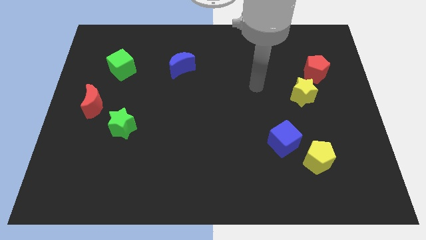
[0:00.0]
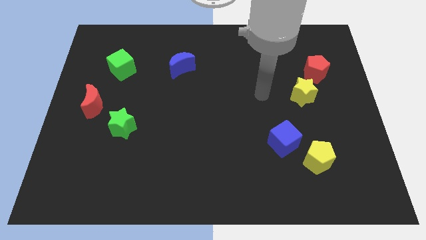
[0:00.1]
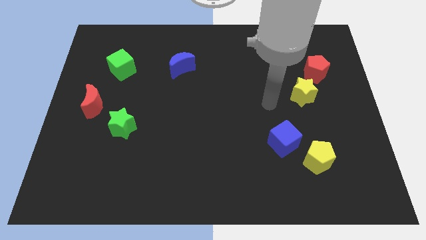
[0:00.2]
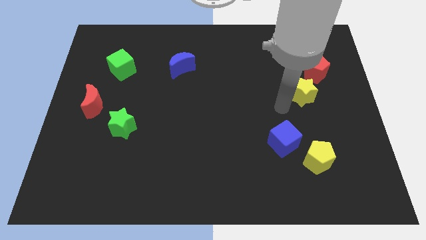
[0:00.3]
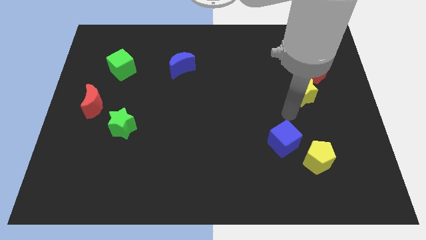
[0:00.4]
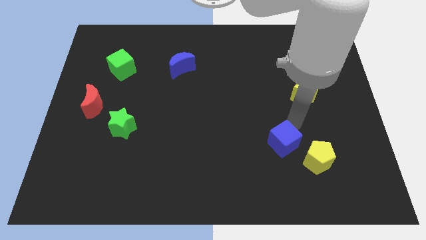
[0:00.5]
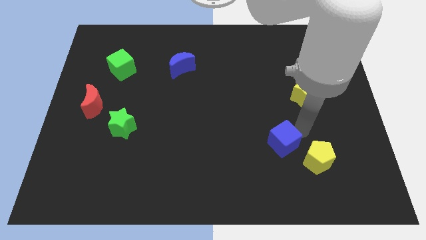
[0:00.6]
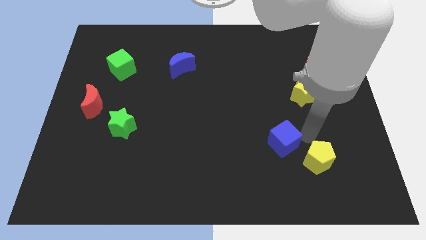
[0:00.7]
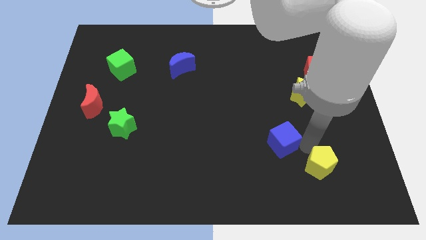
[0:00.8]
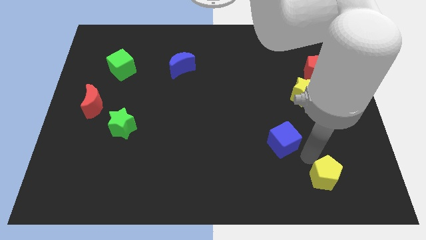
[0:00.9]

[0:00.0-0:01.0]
move the blue cube away from the yellow pentagon

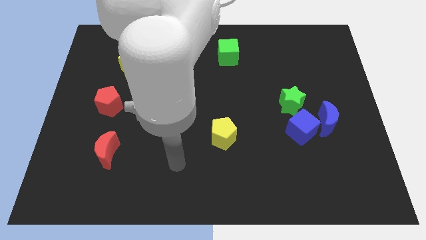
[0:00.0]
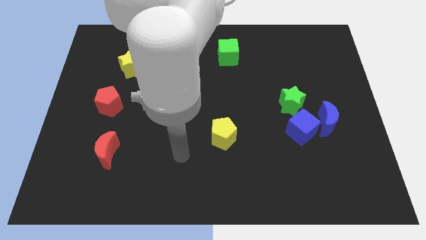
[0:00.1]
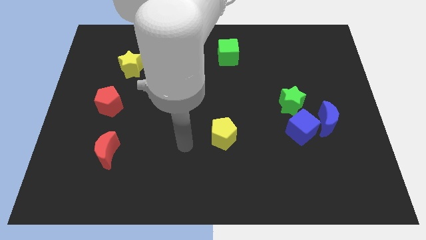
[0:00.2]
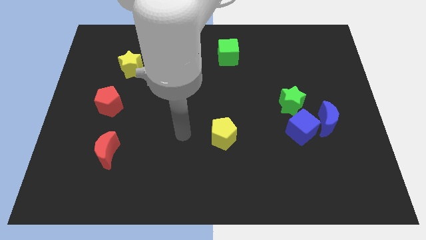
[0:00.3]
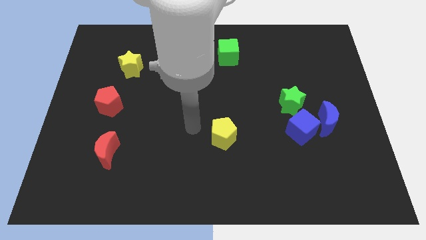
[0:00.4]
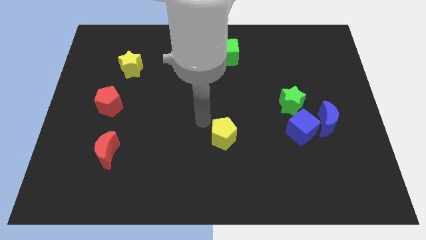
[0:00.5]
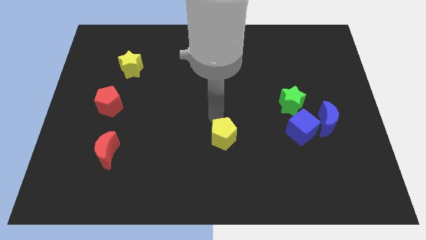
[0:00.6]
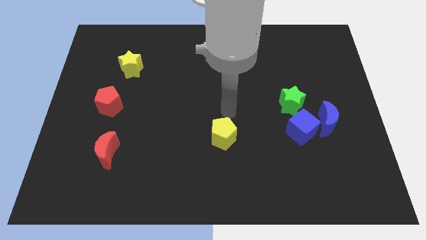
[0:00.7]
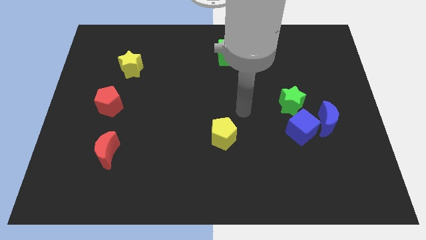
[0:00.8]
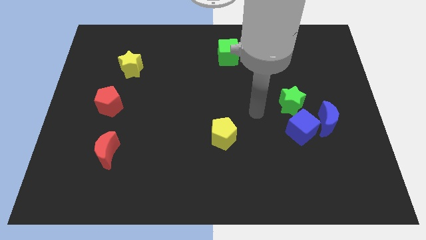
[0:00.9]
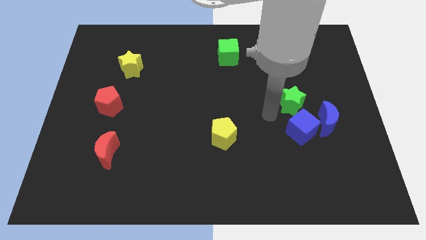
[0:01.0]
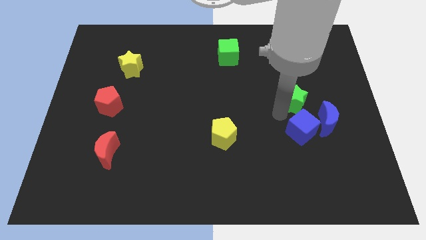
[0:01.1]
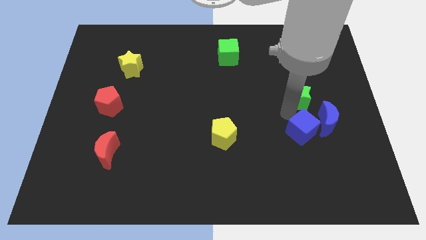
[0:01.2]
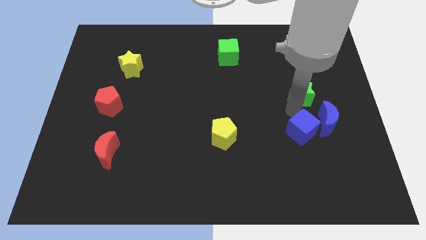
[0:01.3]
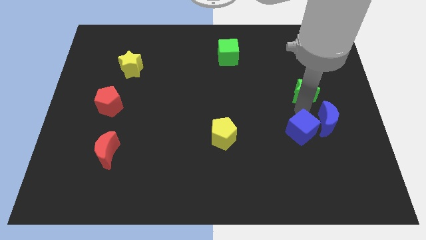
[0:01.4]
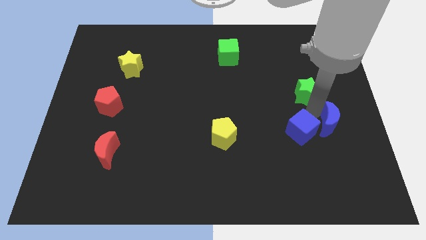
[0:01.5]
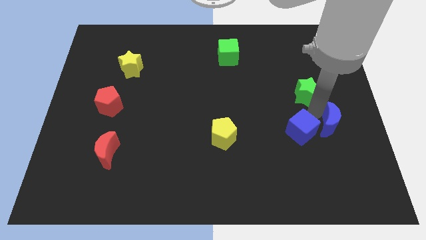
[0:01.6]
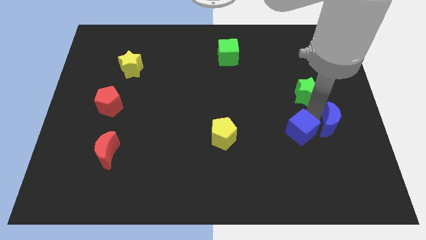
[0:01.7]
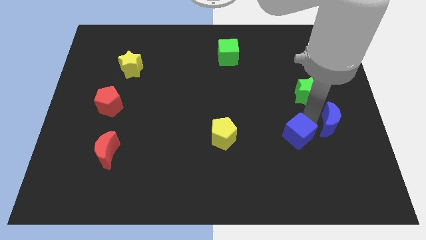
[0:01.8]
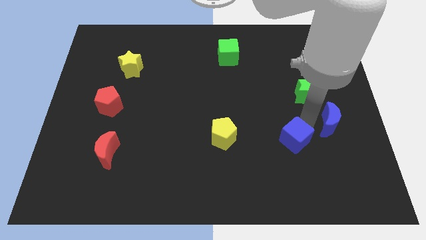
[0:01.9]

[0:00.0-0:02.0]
move the blue cube away from the blue moon and green star

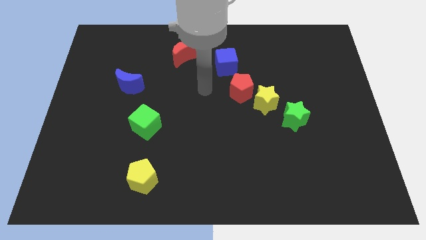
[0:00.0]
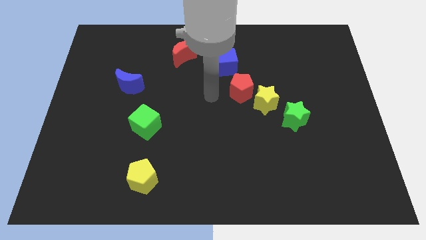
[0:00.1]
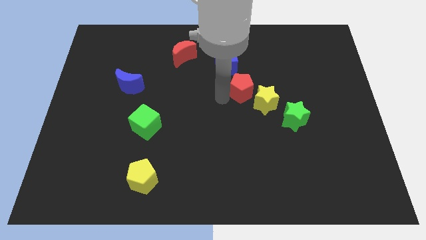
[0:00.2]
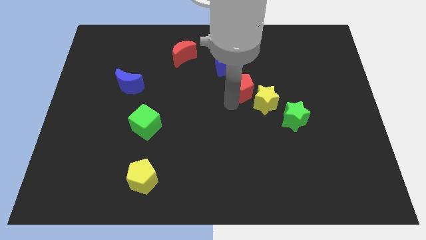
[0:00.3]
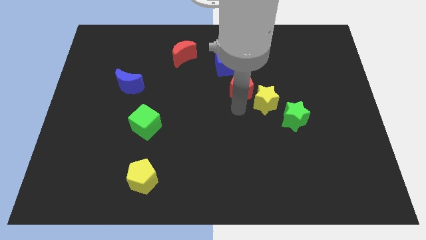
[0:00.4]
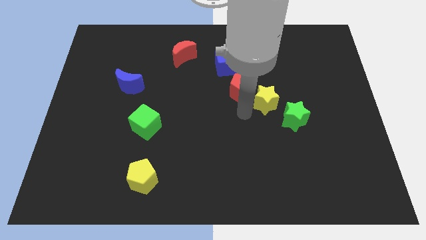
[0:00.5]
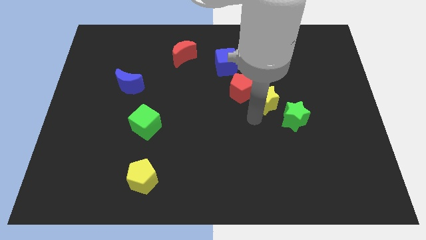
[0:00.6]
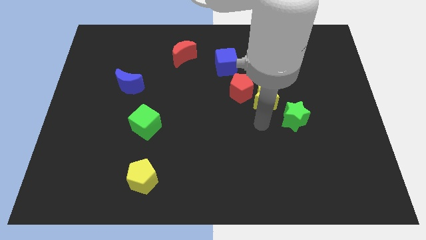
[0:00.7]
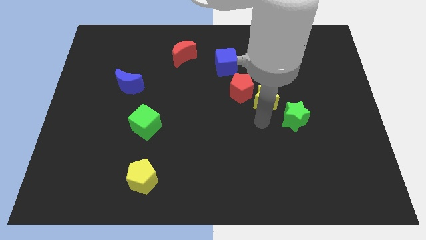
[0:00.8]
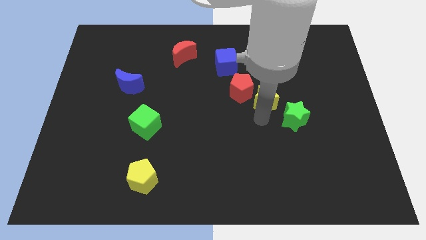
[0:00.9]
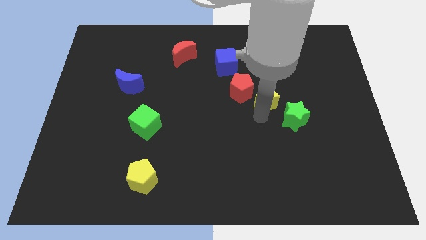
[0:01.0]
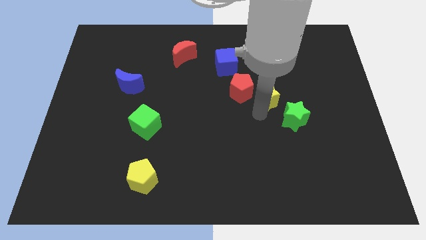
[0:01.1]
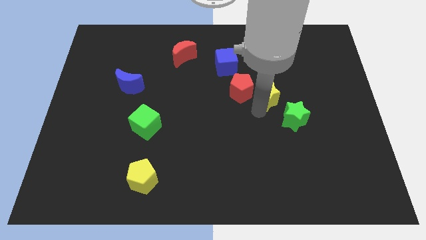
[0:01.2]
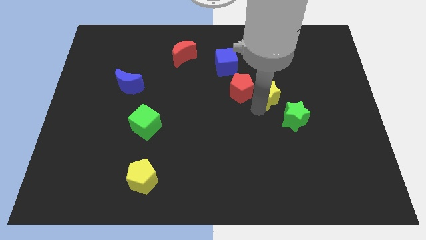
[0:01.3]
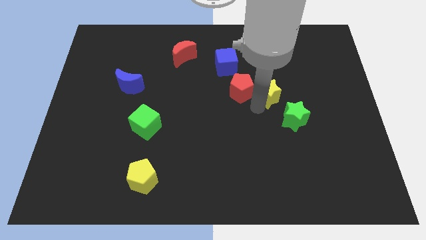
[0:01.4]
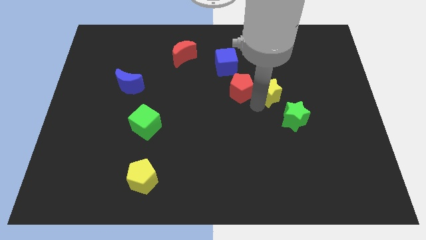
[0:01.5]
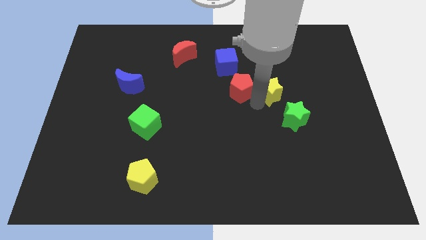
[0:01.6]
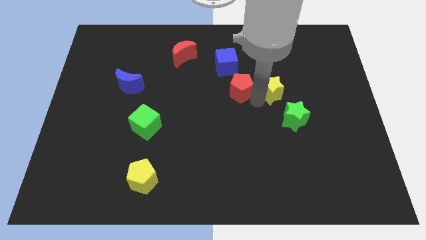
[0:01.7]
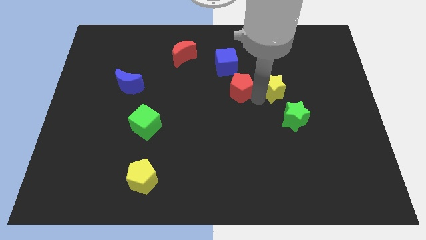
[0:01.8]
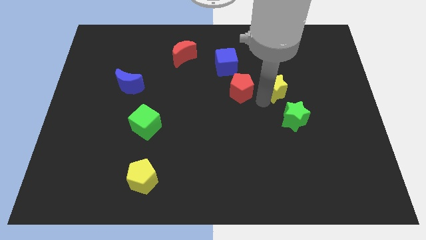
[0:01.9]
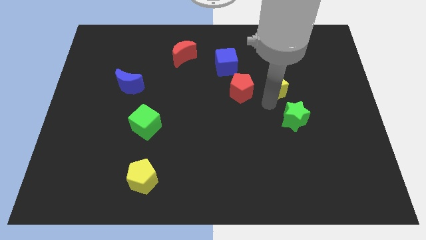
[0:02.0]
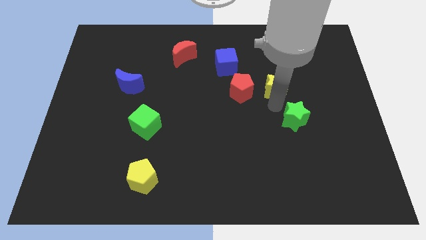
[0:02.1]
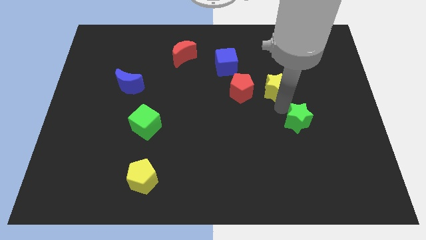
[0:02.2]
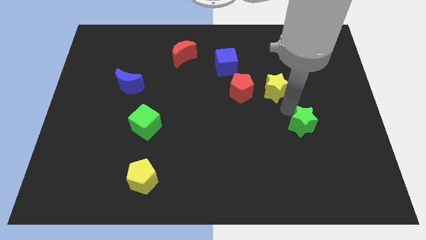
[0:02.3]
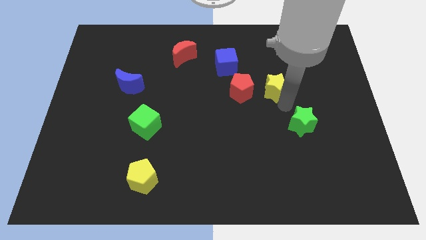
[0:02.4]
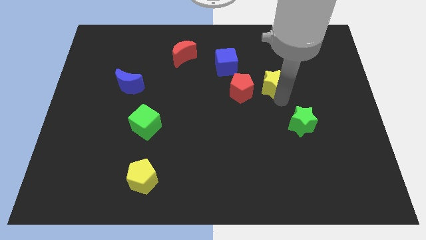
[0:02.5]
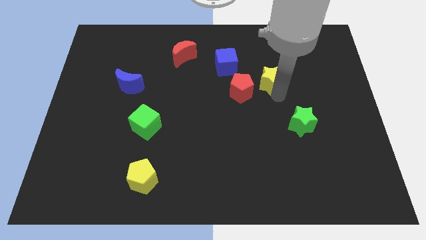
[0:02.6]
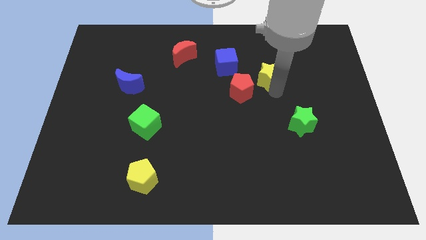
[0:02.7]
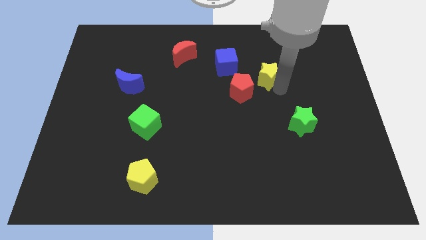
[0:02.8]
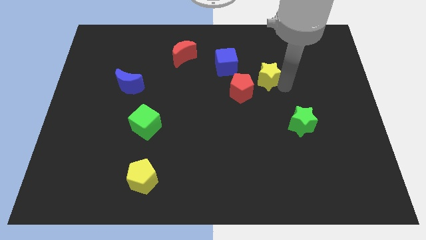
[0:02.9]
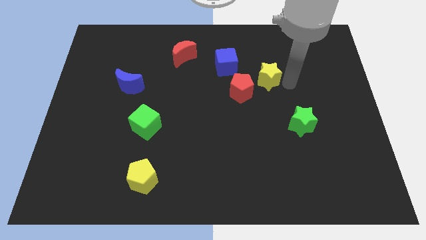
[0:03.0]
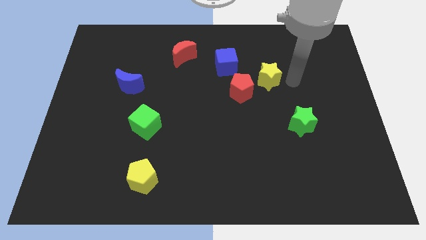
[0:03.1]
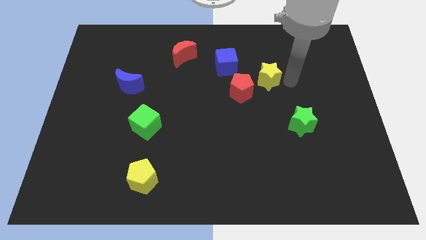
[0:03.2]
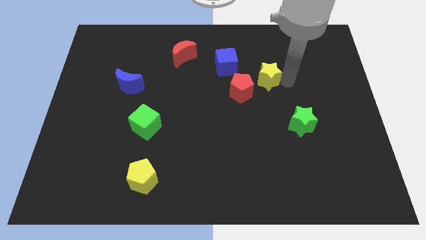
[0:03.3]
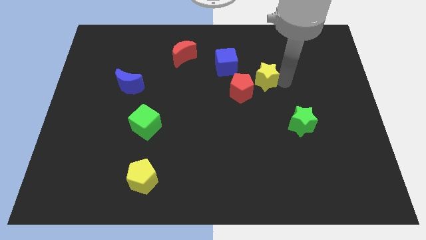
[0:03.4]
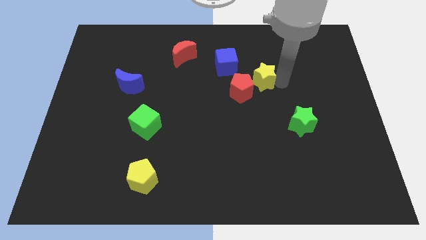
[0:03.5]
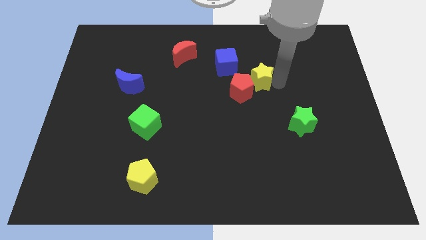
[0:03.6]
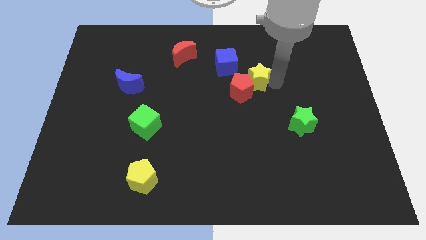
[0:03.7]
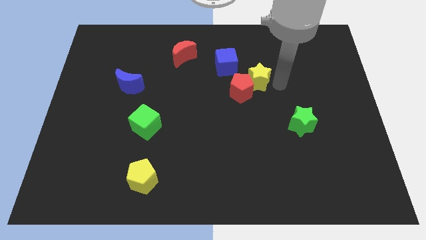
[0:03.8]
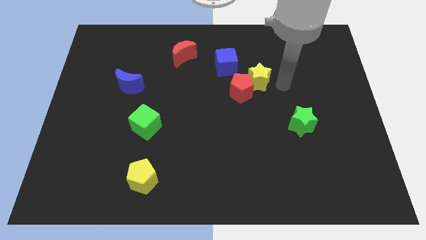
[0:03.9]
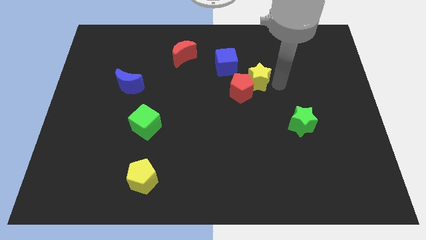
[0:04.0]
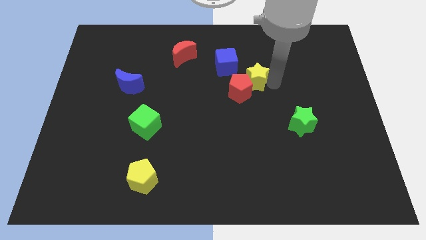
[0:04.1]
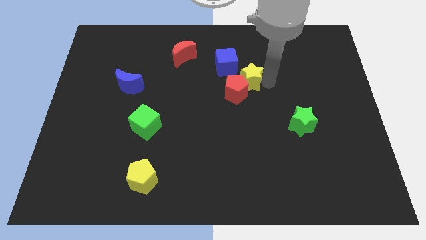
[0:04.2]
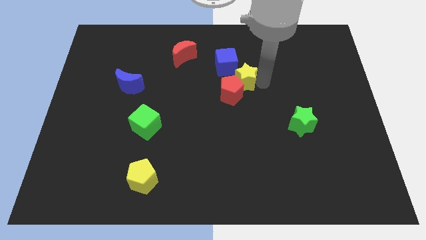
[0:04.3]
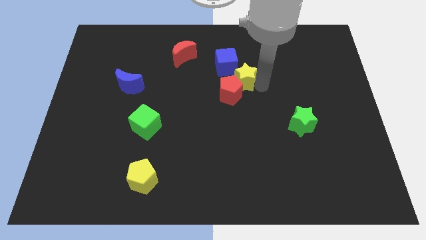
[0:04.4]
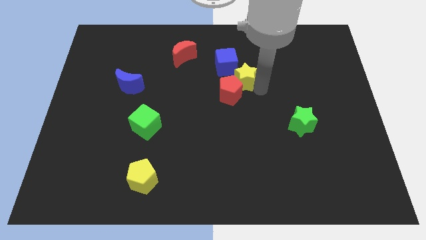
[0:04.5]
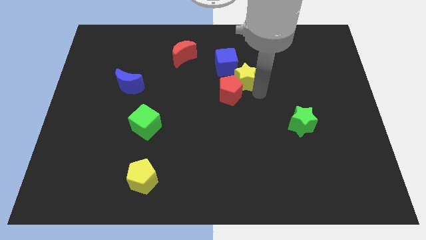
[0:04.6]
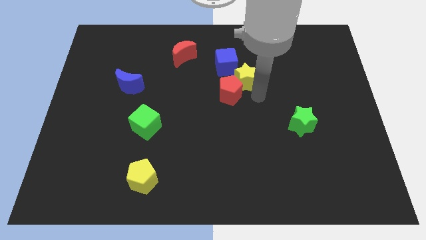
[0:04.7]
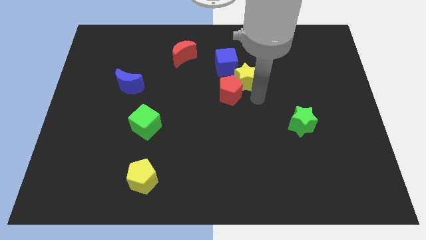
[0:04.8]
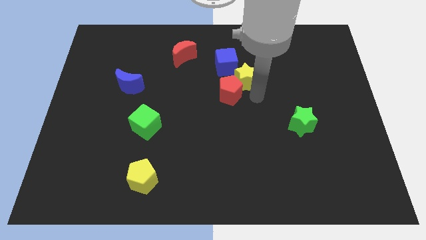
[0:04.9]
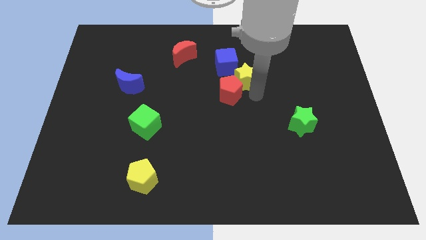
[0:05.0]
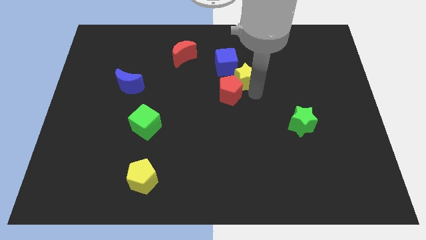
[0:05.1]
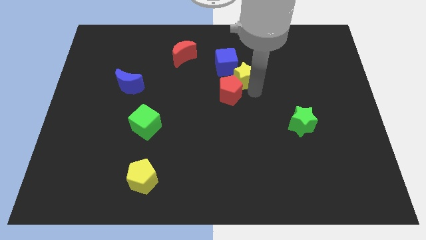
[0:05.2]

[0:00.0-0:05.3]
pull the yellow star apart from the red pentagon and green star

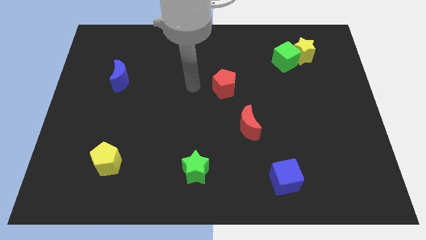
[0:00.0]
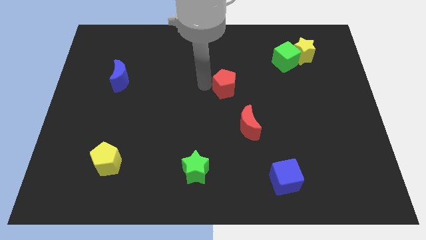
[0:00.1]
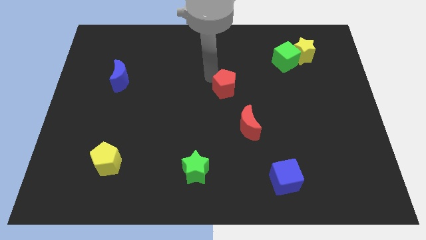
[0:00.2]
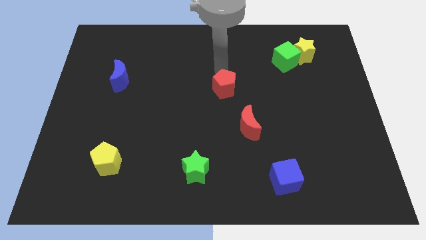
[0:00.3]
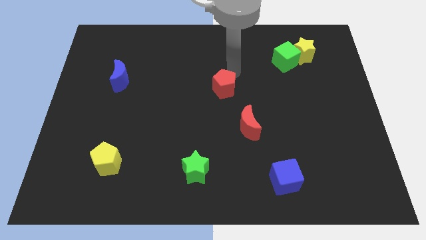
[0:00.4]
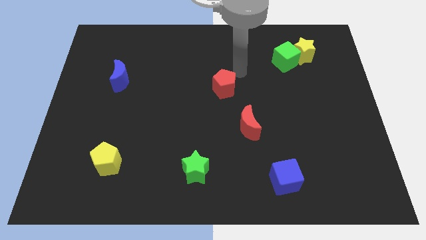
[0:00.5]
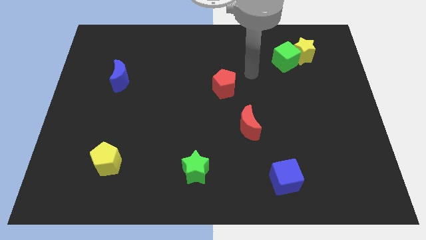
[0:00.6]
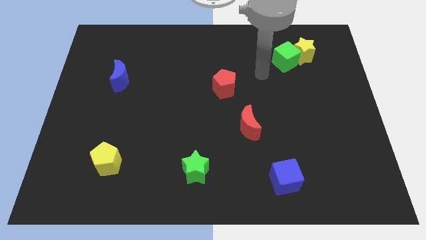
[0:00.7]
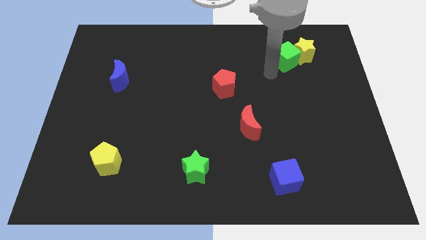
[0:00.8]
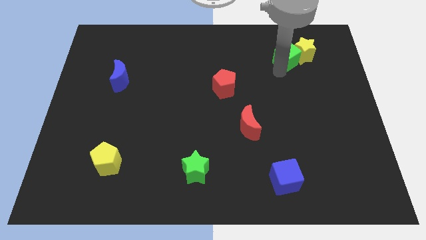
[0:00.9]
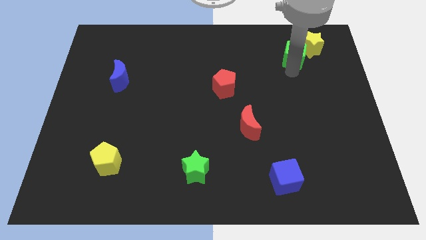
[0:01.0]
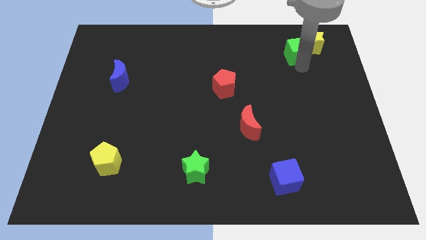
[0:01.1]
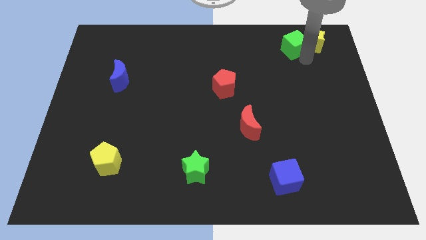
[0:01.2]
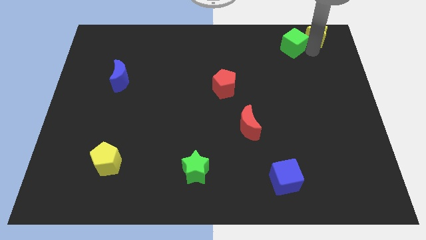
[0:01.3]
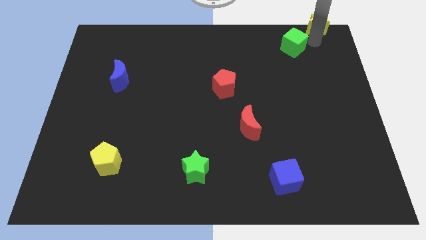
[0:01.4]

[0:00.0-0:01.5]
separate the green cube from the yellow star
